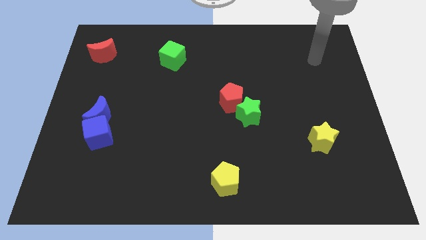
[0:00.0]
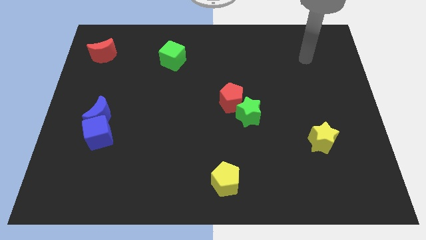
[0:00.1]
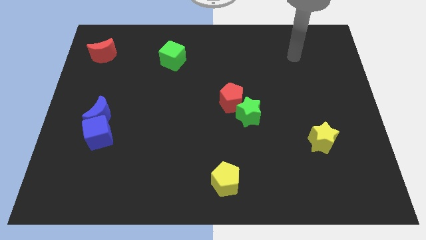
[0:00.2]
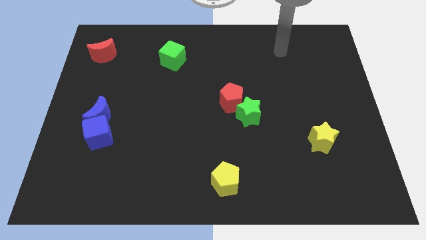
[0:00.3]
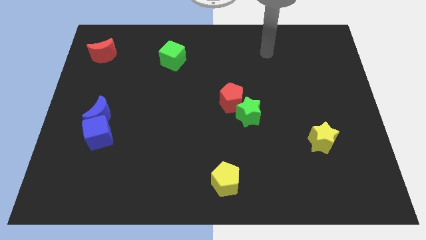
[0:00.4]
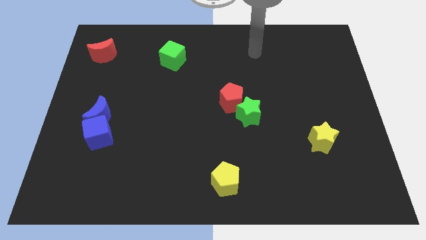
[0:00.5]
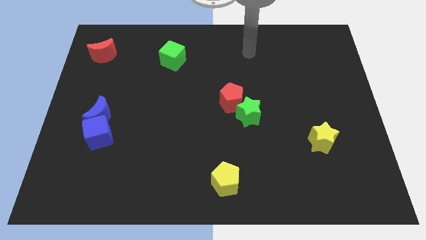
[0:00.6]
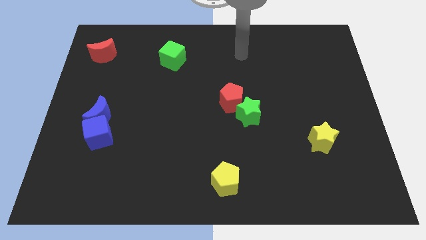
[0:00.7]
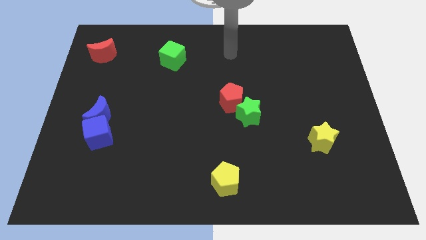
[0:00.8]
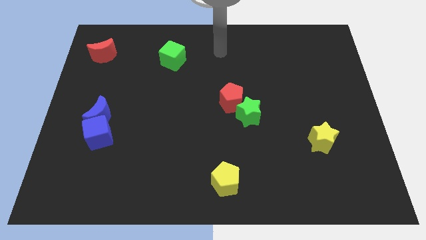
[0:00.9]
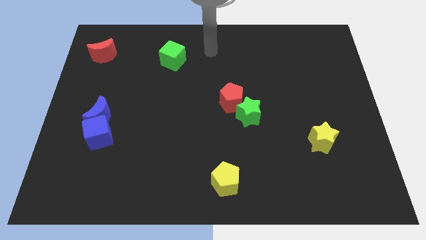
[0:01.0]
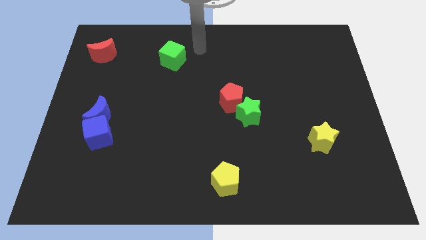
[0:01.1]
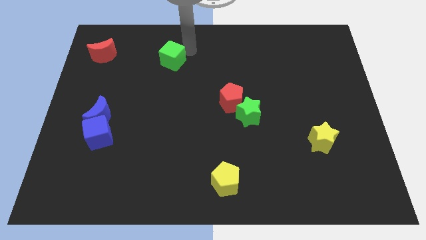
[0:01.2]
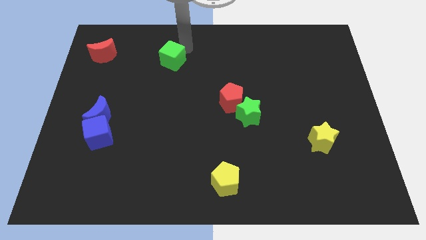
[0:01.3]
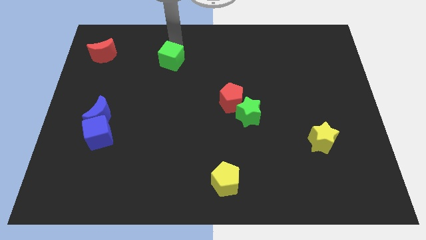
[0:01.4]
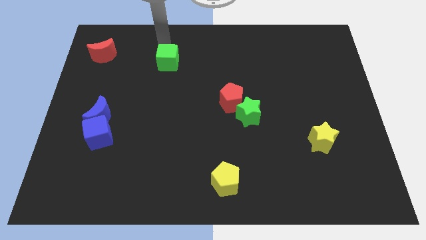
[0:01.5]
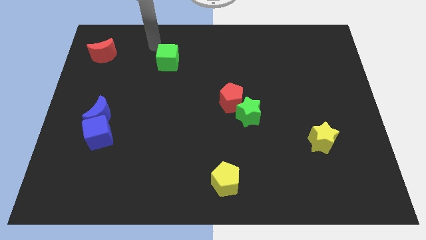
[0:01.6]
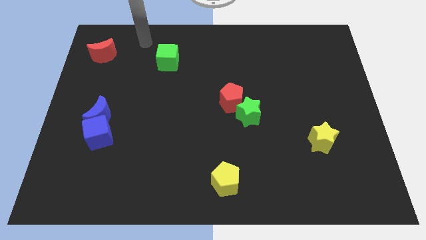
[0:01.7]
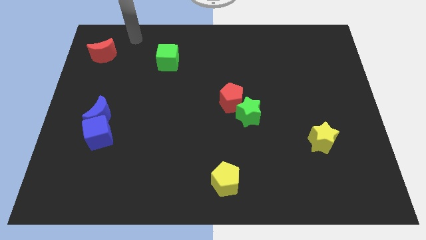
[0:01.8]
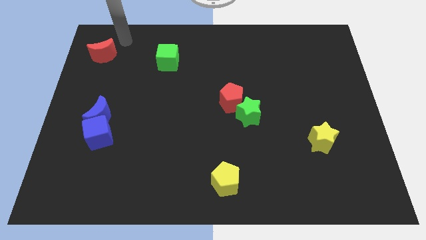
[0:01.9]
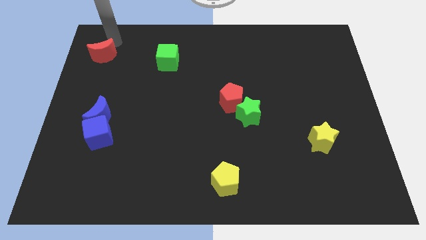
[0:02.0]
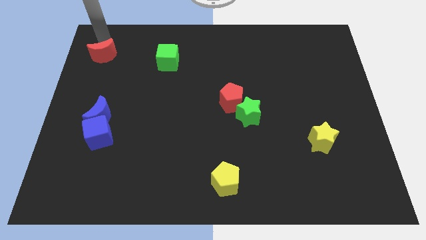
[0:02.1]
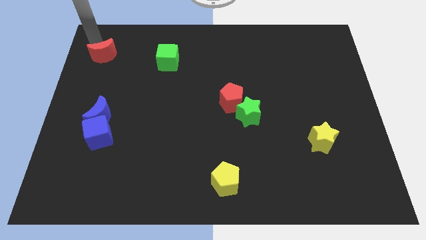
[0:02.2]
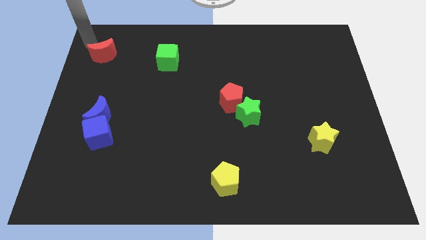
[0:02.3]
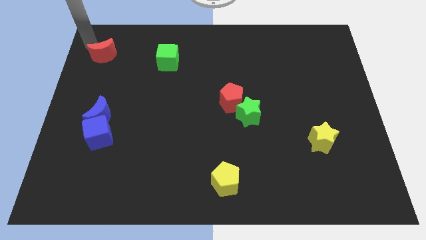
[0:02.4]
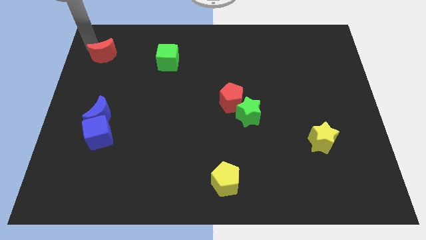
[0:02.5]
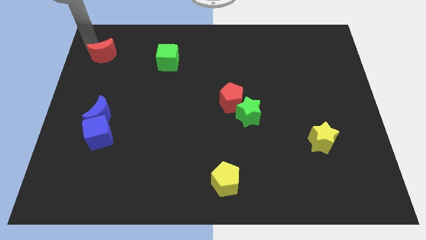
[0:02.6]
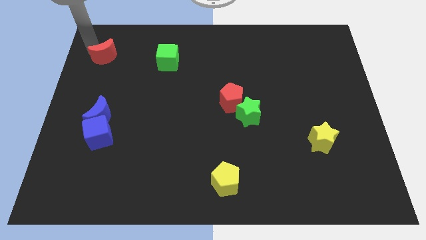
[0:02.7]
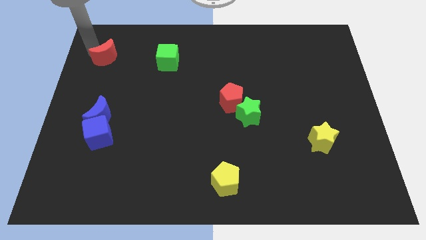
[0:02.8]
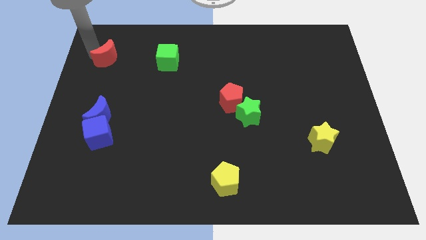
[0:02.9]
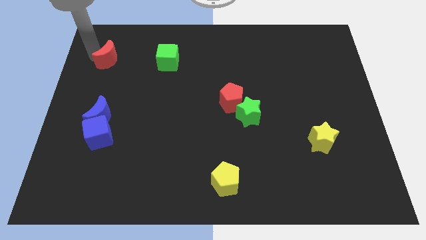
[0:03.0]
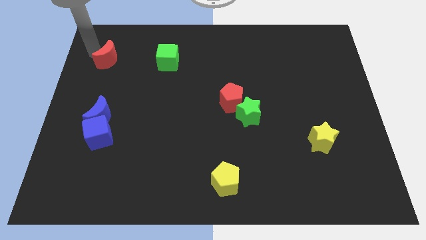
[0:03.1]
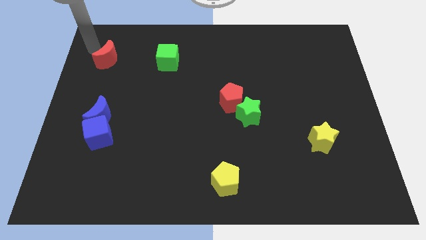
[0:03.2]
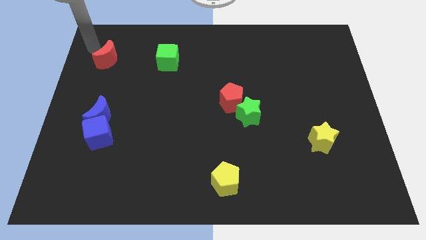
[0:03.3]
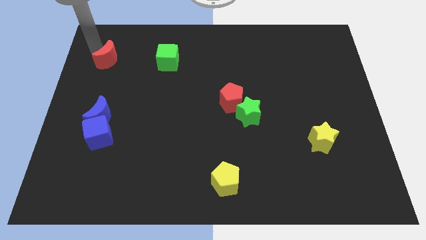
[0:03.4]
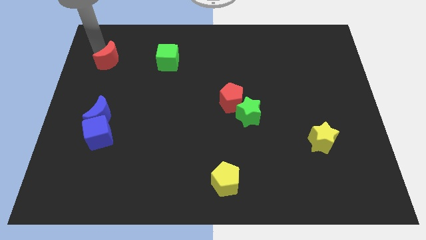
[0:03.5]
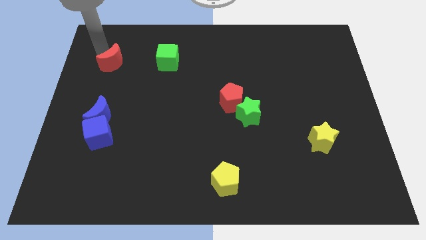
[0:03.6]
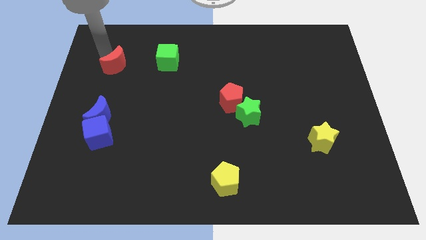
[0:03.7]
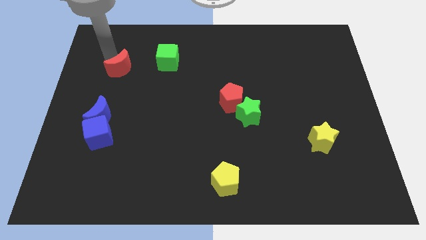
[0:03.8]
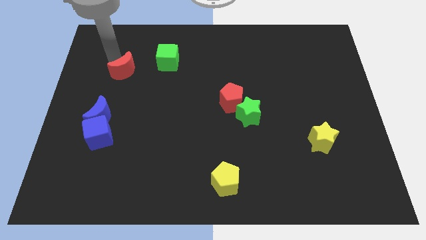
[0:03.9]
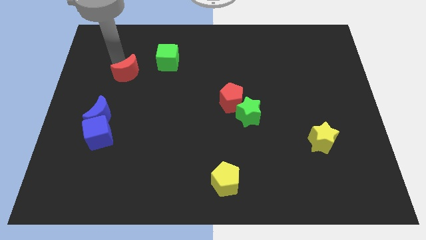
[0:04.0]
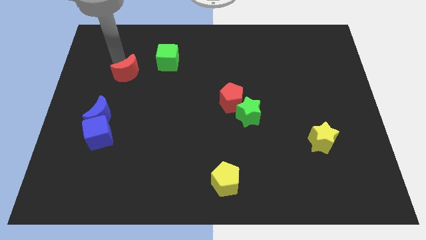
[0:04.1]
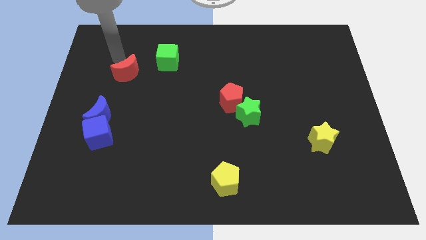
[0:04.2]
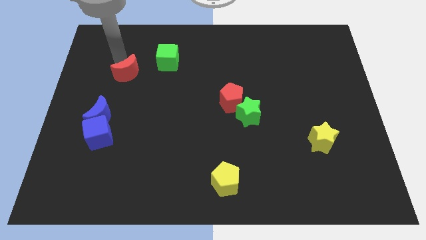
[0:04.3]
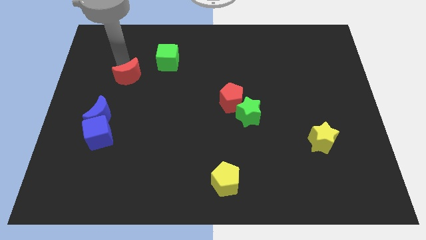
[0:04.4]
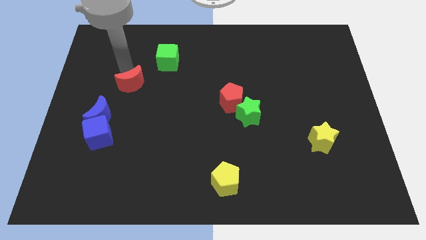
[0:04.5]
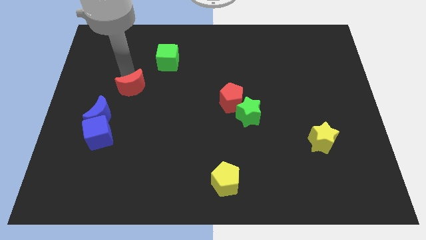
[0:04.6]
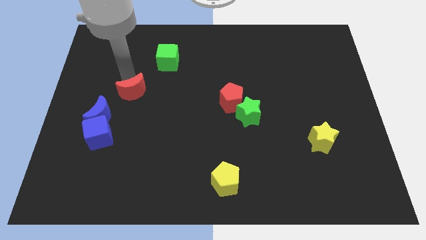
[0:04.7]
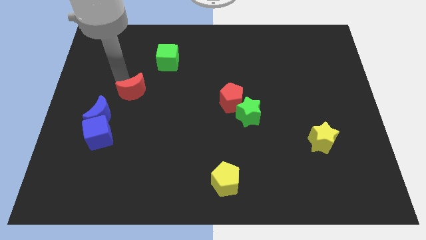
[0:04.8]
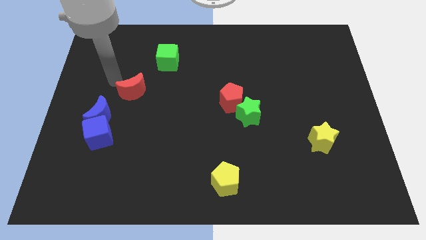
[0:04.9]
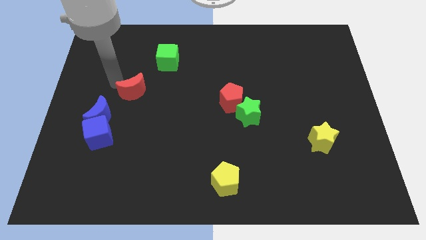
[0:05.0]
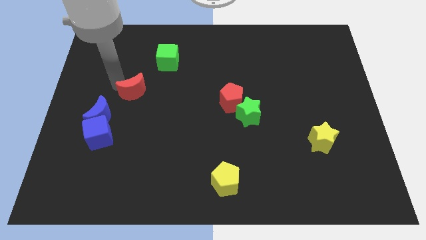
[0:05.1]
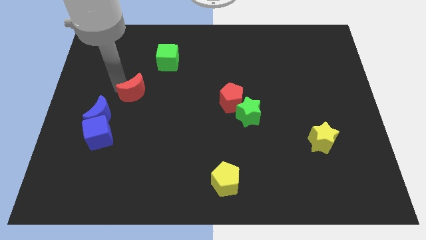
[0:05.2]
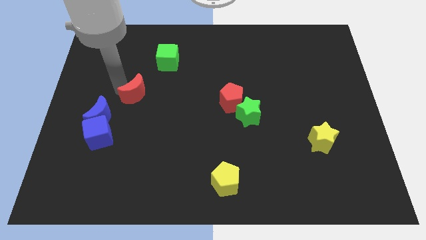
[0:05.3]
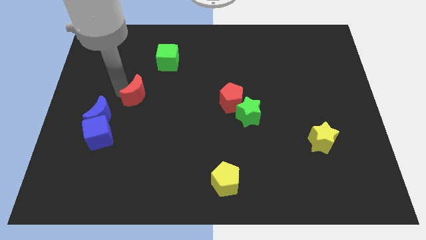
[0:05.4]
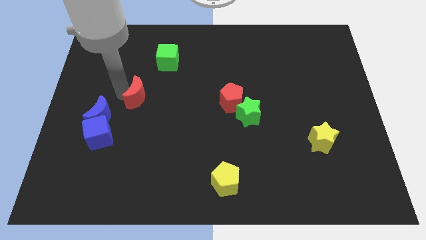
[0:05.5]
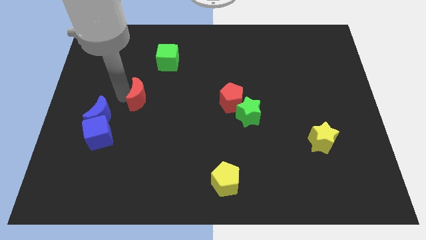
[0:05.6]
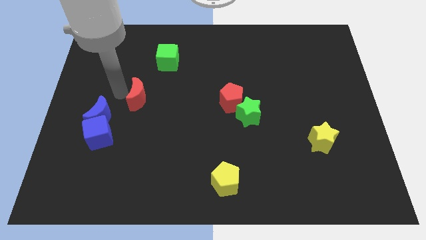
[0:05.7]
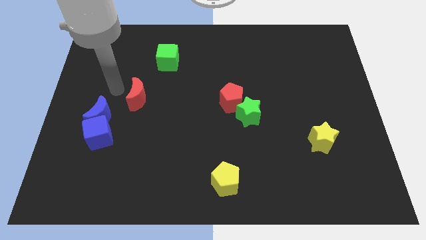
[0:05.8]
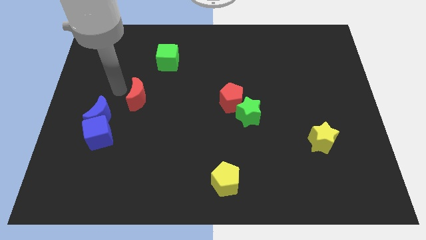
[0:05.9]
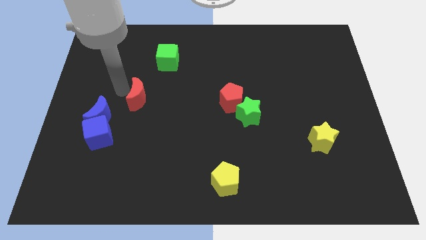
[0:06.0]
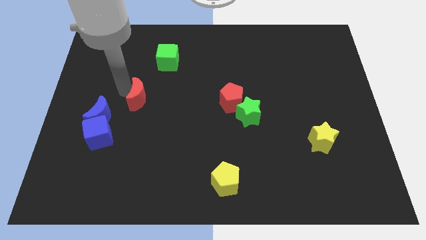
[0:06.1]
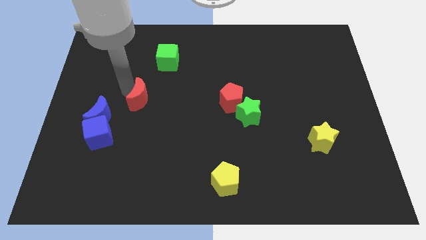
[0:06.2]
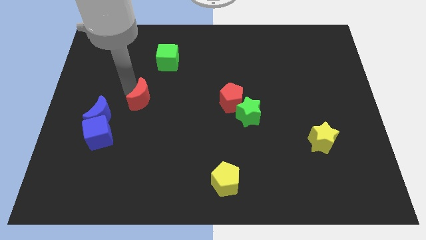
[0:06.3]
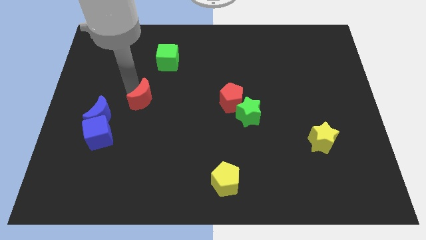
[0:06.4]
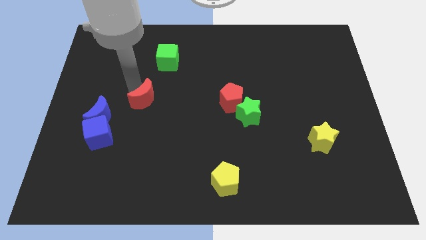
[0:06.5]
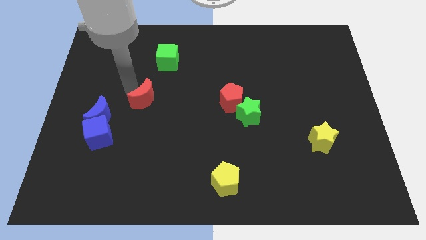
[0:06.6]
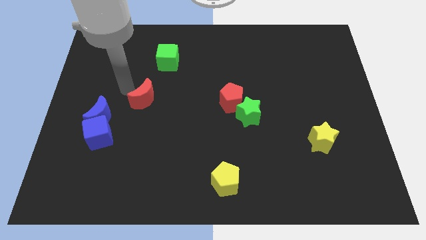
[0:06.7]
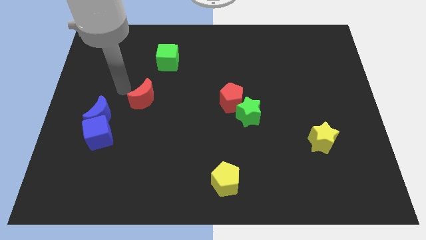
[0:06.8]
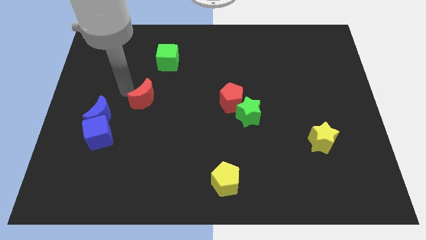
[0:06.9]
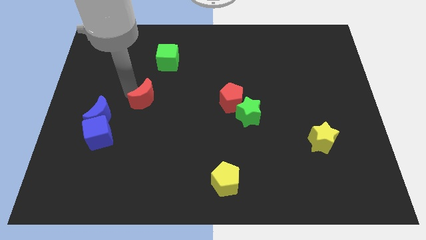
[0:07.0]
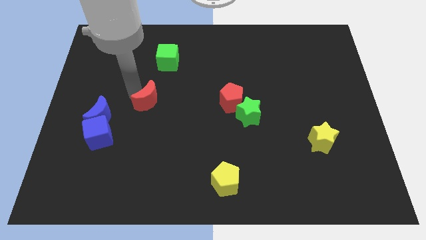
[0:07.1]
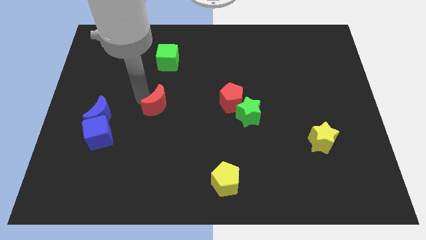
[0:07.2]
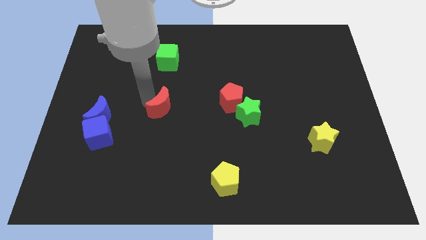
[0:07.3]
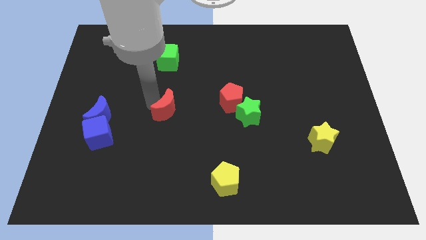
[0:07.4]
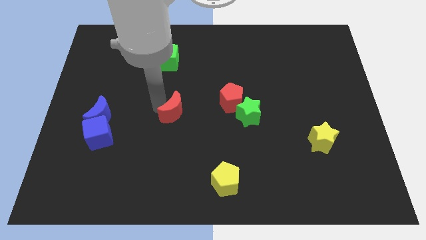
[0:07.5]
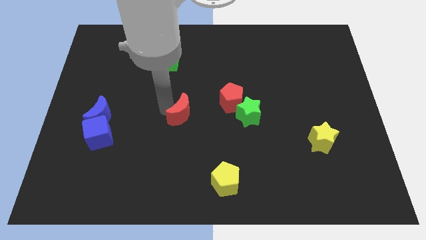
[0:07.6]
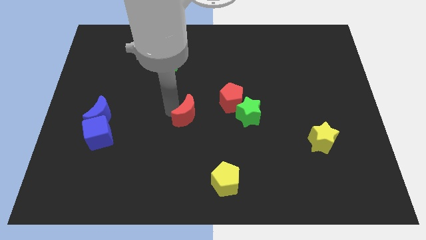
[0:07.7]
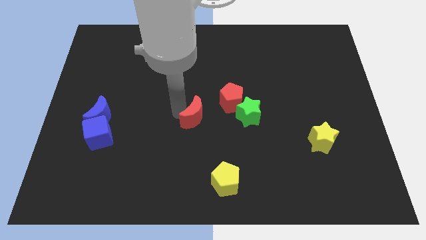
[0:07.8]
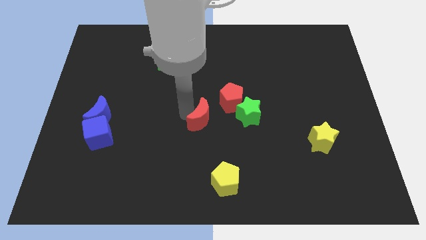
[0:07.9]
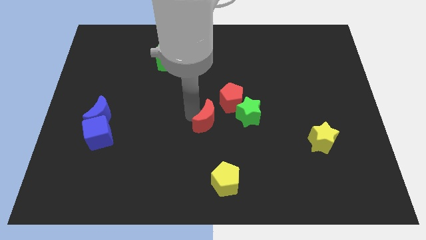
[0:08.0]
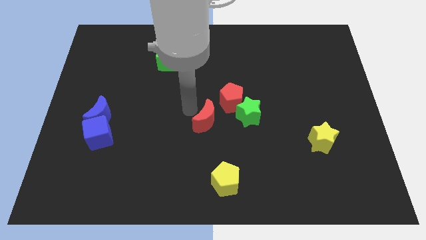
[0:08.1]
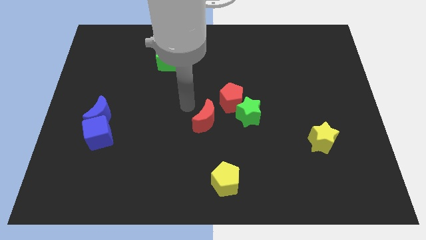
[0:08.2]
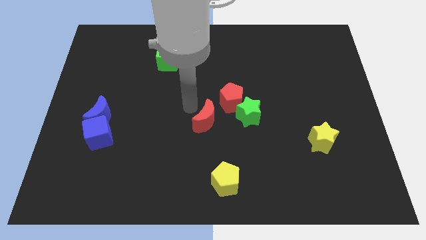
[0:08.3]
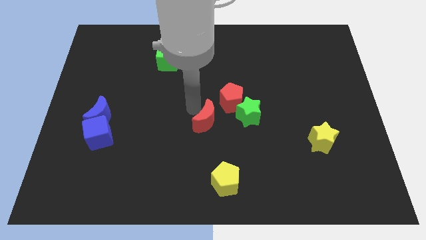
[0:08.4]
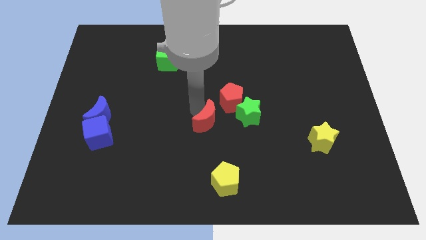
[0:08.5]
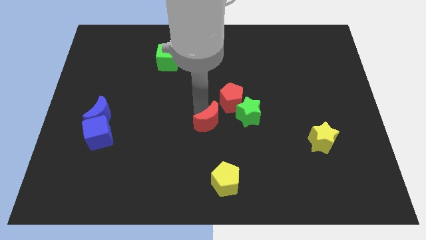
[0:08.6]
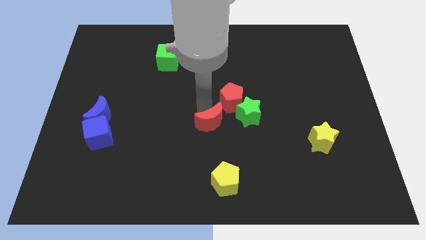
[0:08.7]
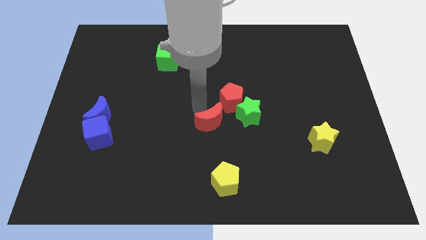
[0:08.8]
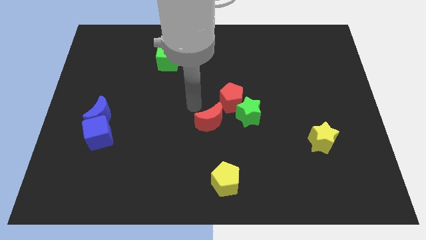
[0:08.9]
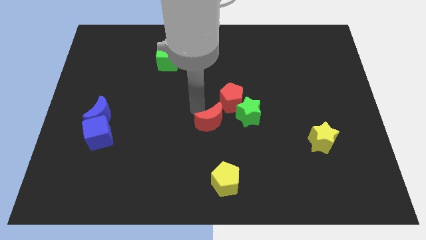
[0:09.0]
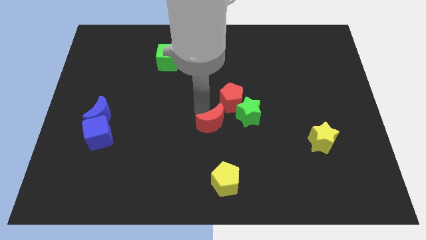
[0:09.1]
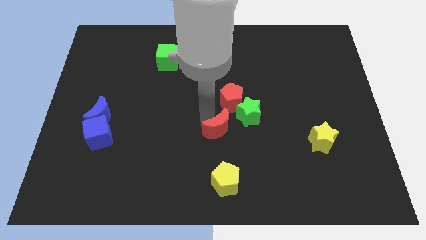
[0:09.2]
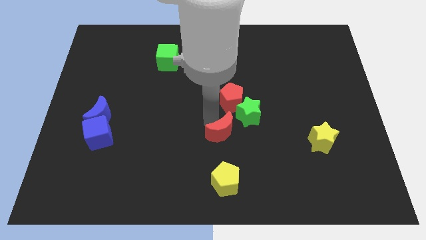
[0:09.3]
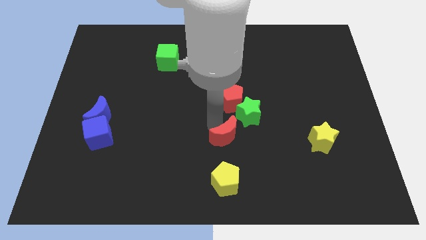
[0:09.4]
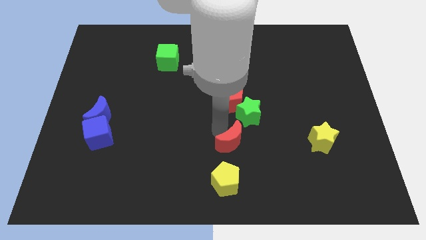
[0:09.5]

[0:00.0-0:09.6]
push the red moon below the green star
